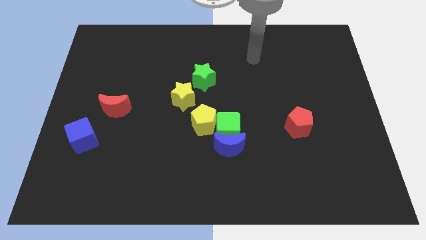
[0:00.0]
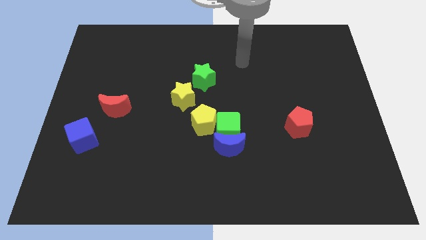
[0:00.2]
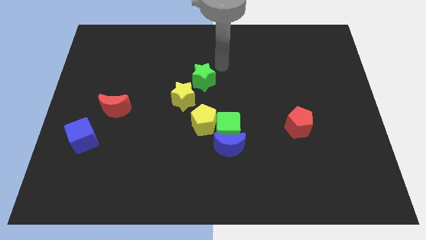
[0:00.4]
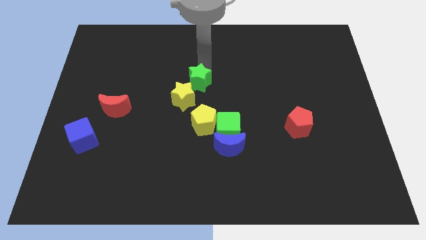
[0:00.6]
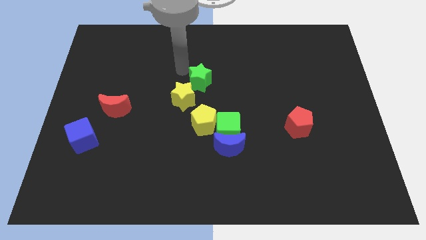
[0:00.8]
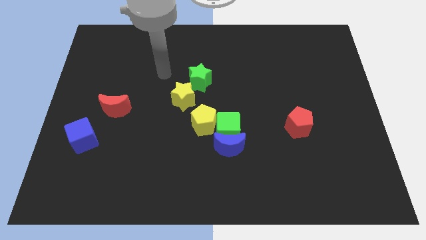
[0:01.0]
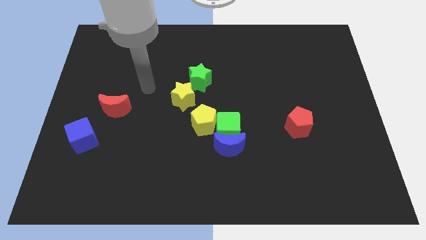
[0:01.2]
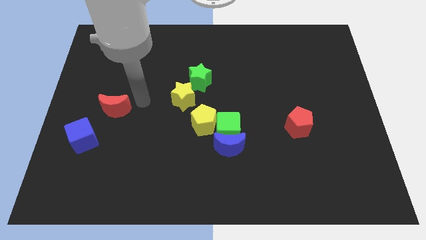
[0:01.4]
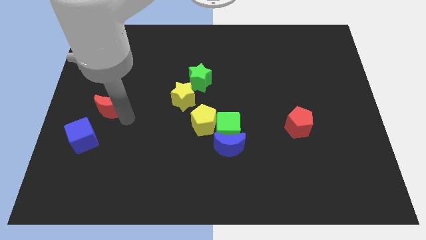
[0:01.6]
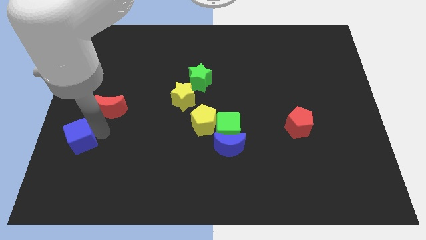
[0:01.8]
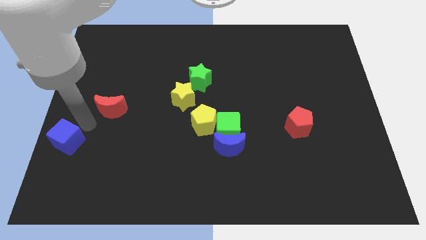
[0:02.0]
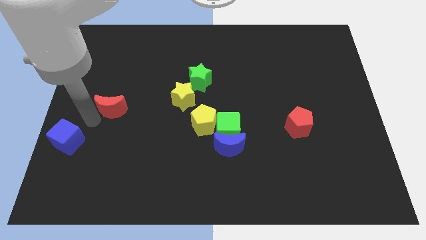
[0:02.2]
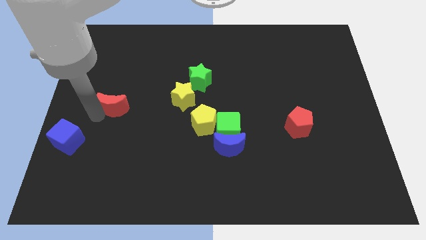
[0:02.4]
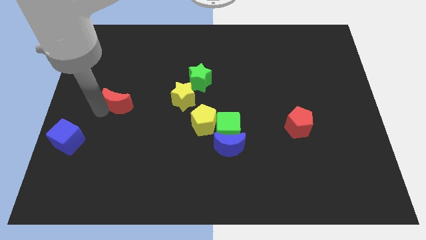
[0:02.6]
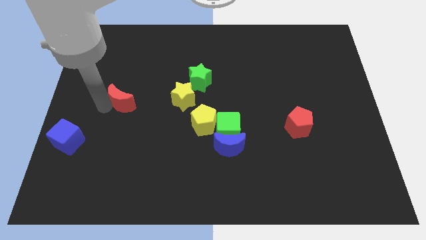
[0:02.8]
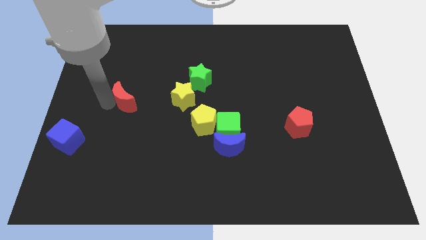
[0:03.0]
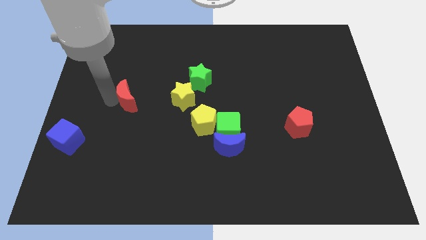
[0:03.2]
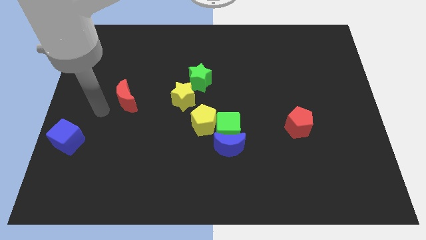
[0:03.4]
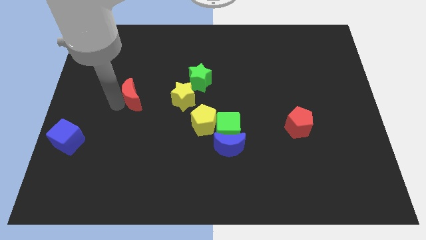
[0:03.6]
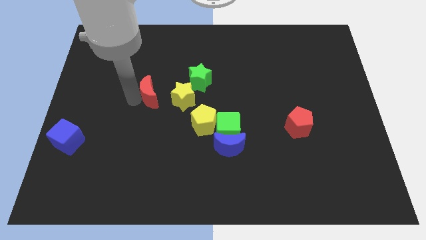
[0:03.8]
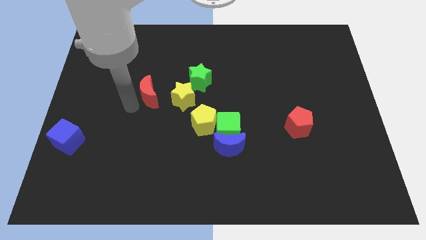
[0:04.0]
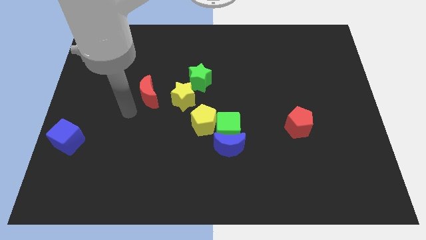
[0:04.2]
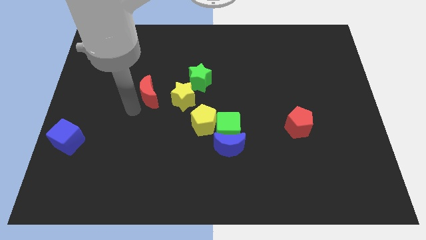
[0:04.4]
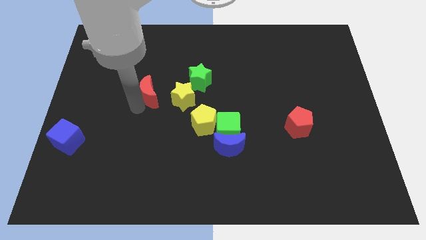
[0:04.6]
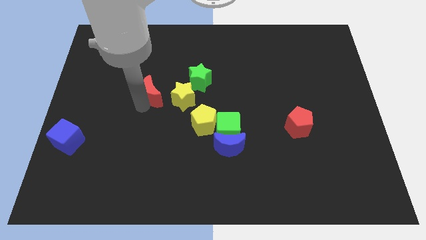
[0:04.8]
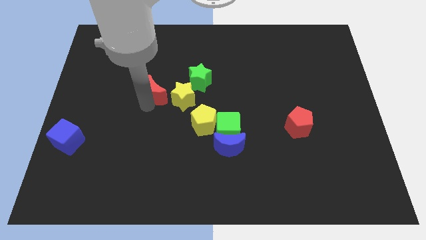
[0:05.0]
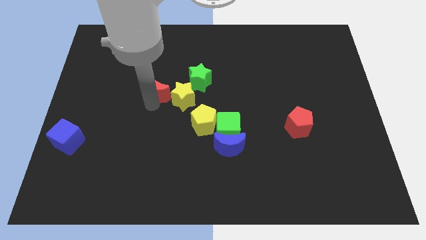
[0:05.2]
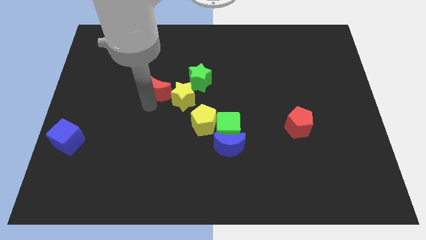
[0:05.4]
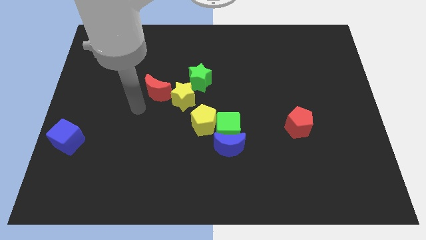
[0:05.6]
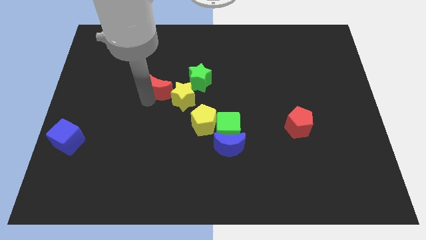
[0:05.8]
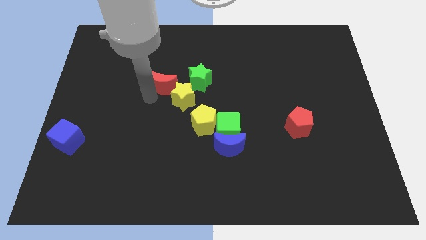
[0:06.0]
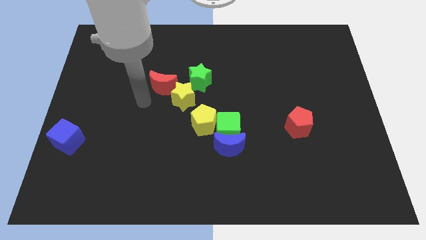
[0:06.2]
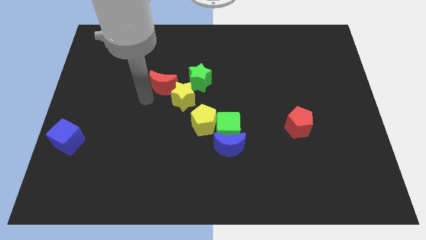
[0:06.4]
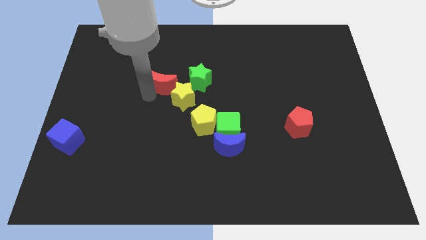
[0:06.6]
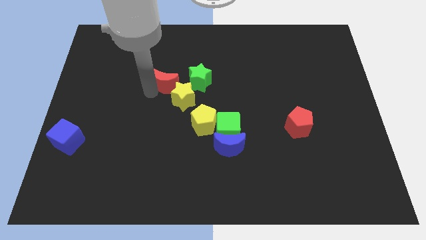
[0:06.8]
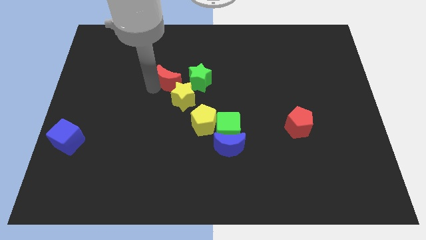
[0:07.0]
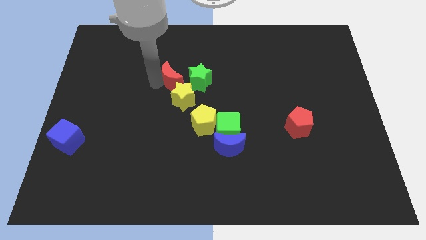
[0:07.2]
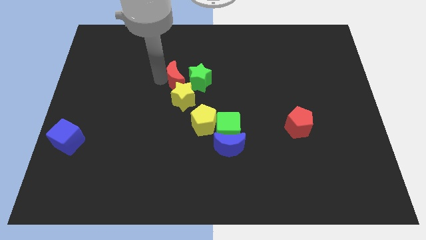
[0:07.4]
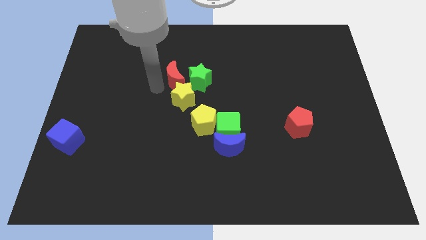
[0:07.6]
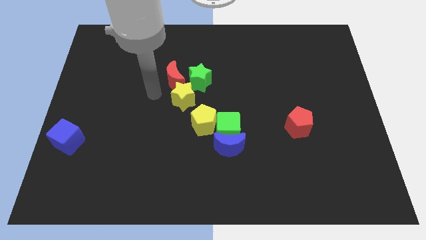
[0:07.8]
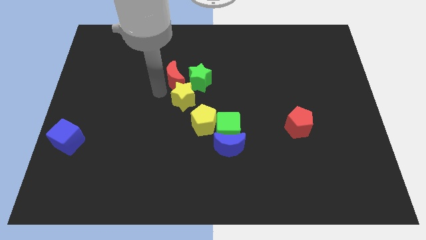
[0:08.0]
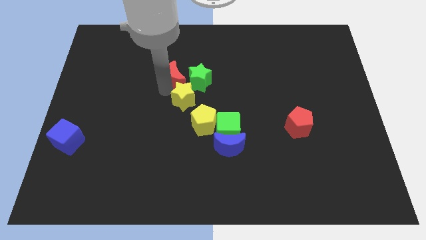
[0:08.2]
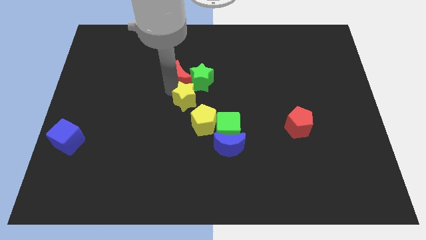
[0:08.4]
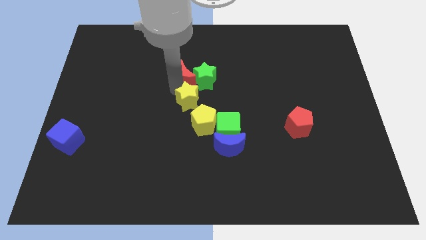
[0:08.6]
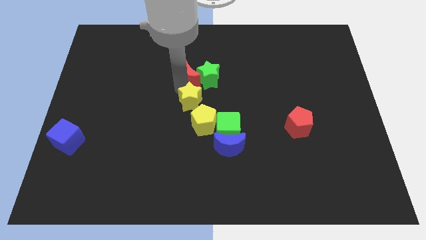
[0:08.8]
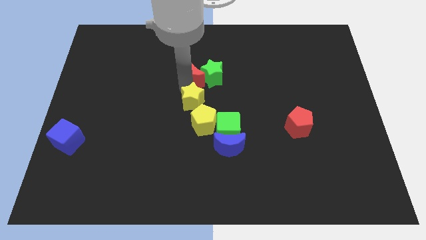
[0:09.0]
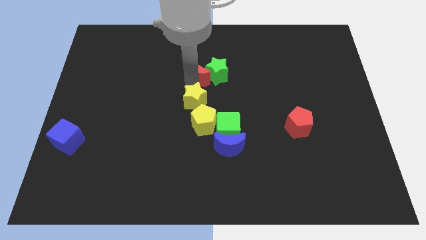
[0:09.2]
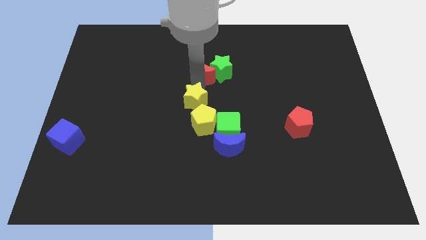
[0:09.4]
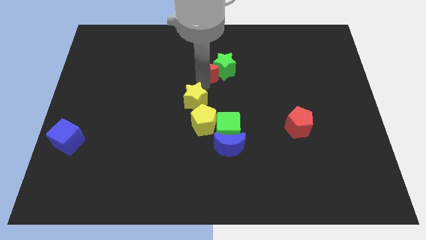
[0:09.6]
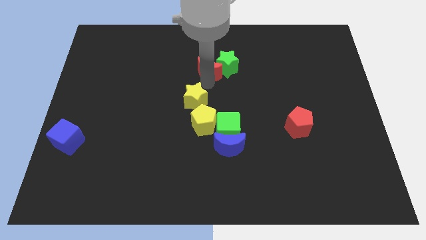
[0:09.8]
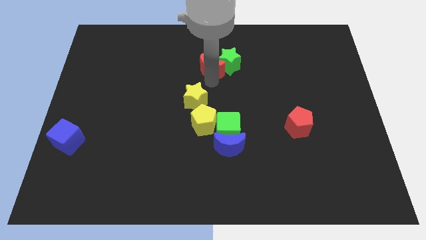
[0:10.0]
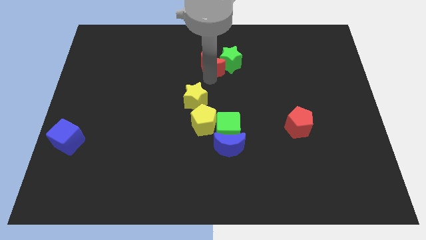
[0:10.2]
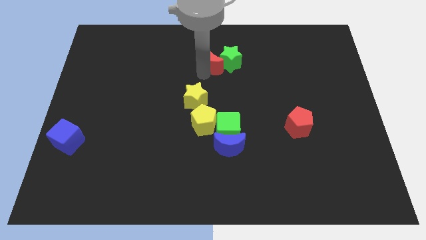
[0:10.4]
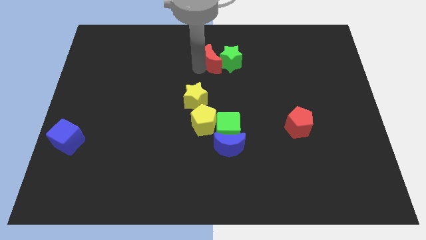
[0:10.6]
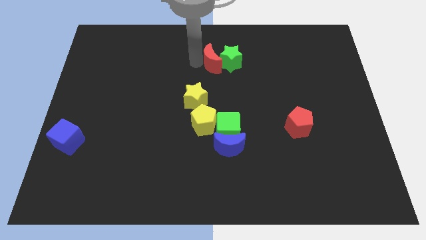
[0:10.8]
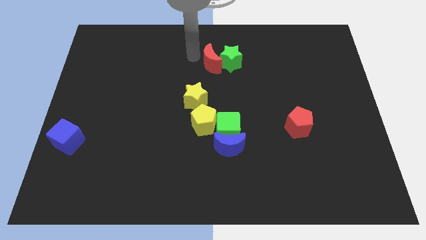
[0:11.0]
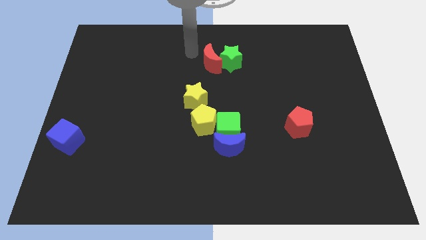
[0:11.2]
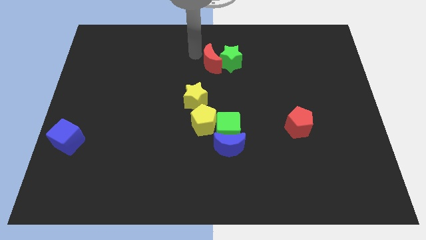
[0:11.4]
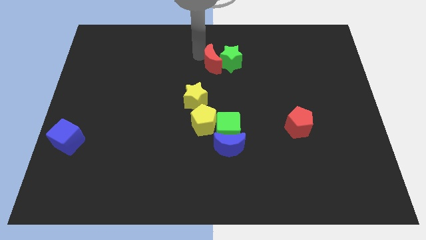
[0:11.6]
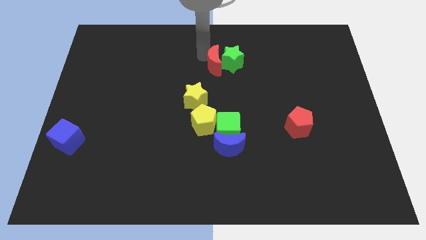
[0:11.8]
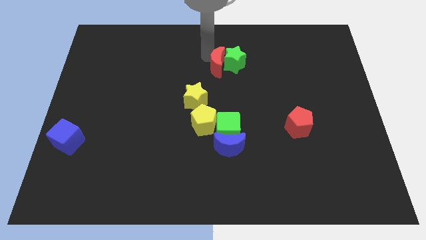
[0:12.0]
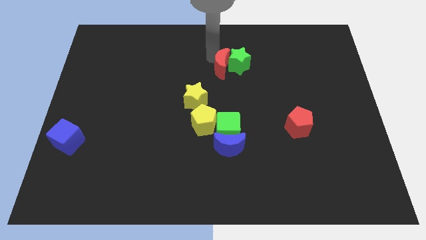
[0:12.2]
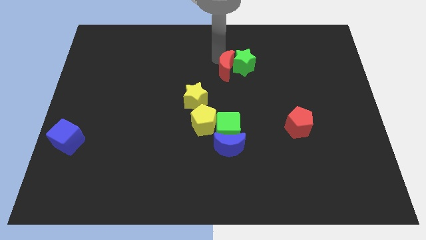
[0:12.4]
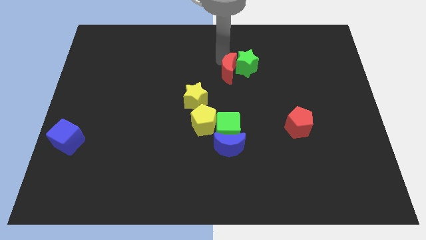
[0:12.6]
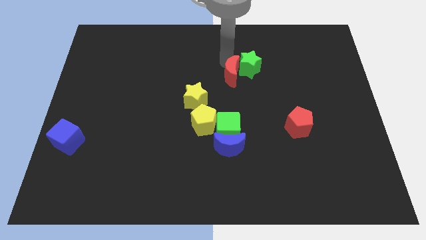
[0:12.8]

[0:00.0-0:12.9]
push the red moon to the right

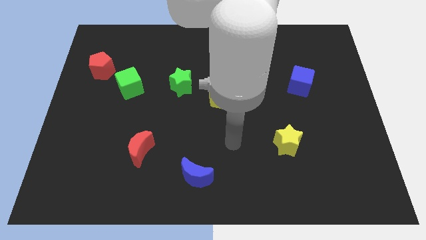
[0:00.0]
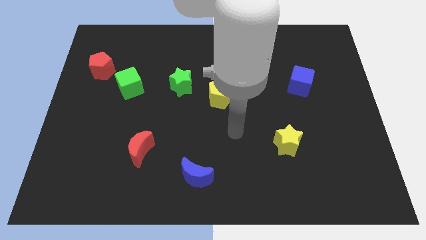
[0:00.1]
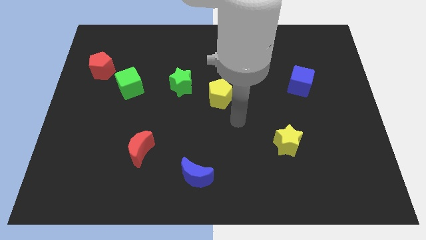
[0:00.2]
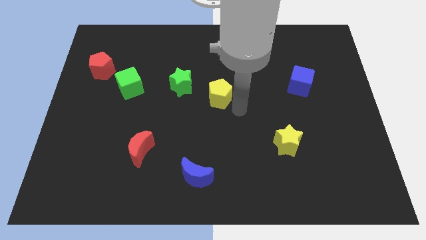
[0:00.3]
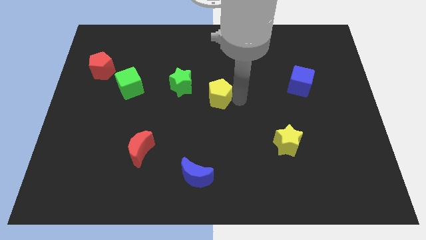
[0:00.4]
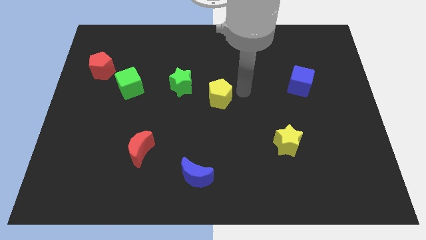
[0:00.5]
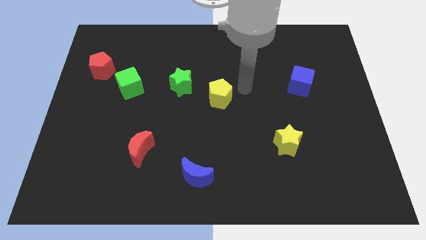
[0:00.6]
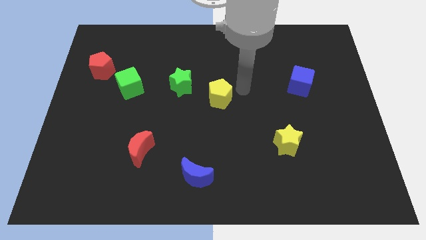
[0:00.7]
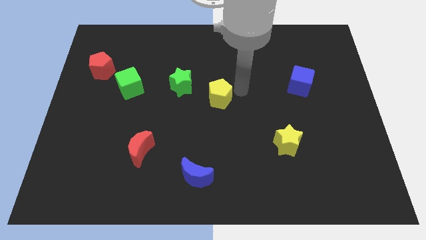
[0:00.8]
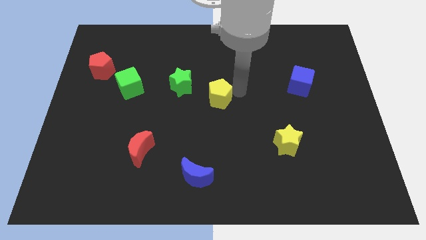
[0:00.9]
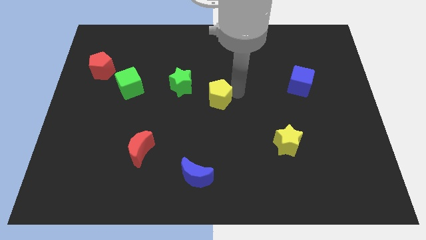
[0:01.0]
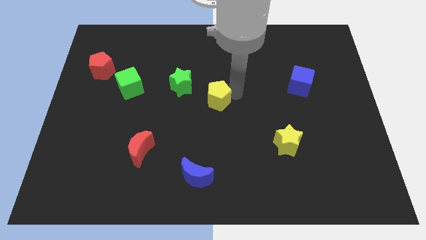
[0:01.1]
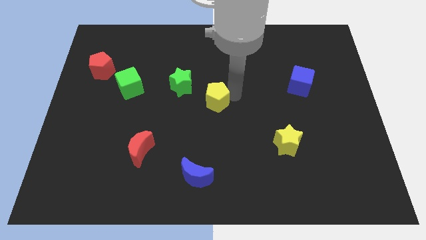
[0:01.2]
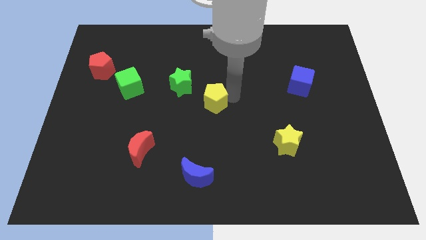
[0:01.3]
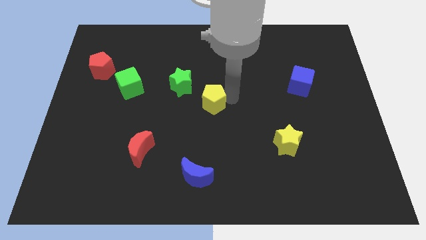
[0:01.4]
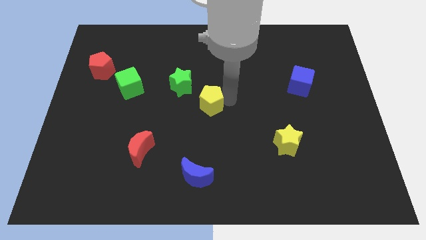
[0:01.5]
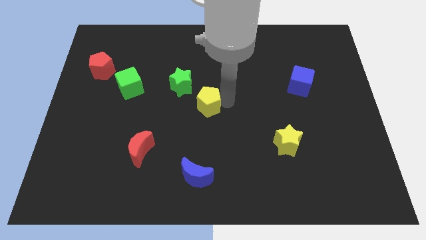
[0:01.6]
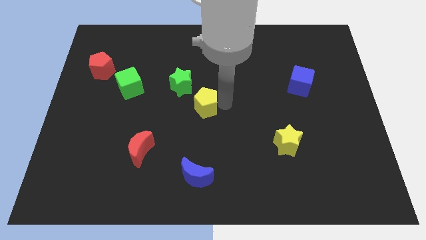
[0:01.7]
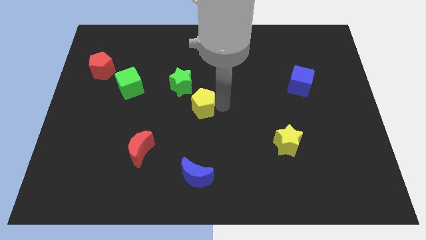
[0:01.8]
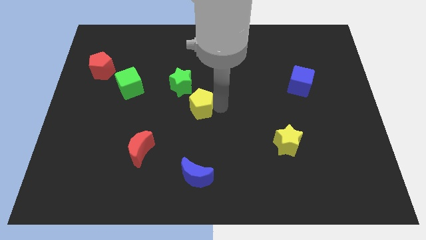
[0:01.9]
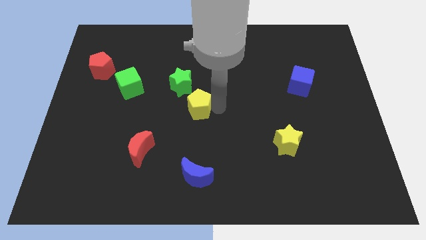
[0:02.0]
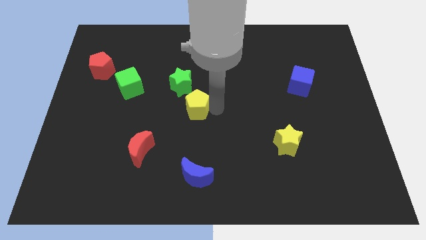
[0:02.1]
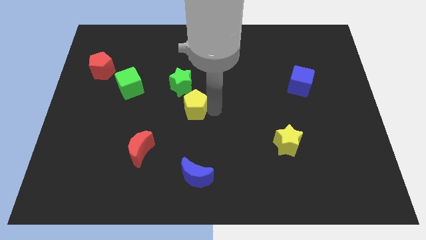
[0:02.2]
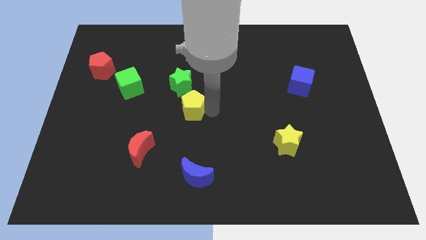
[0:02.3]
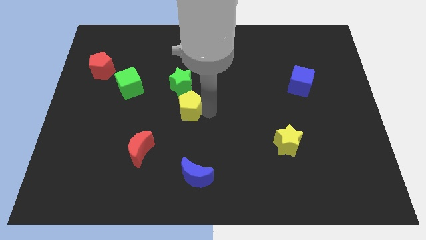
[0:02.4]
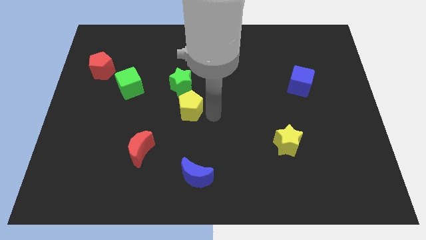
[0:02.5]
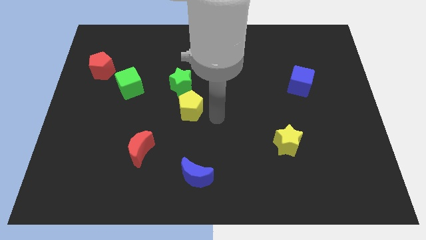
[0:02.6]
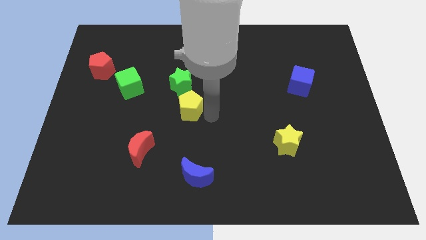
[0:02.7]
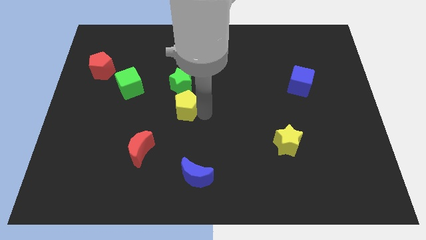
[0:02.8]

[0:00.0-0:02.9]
slide the yellow pentagon slightly left
